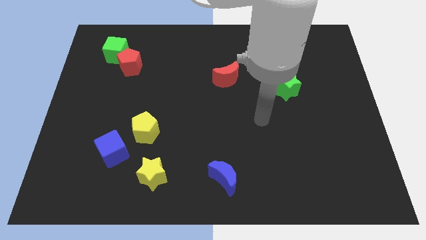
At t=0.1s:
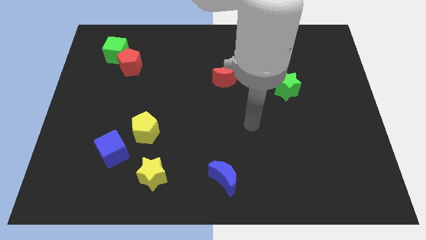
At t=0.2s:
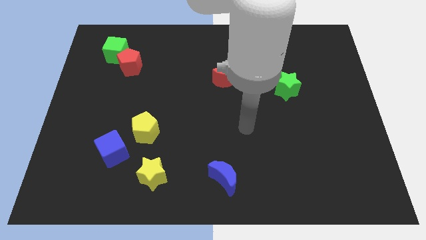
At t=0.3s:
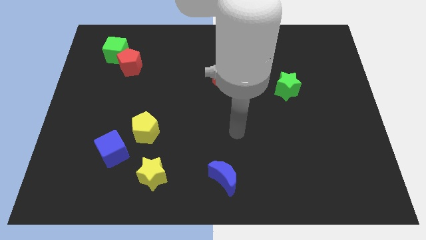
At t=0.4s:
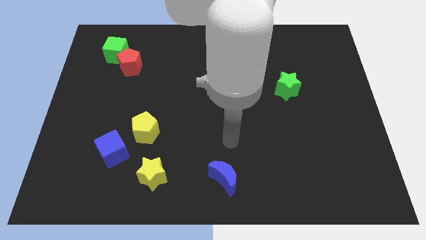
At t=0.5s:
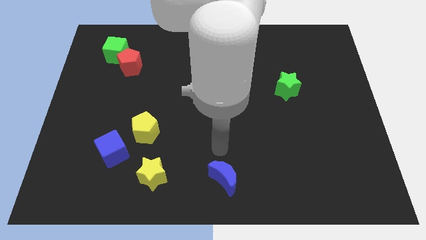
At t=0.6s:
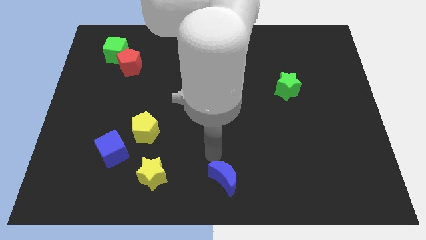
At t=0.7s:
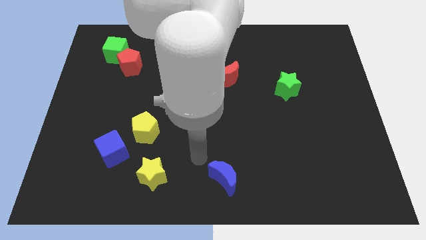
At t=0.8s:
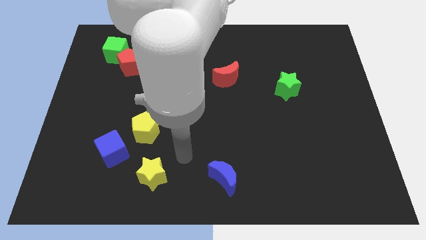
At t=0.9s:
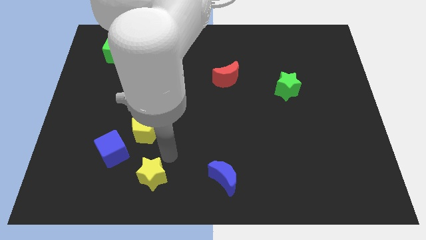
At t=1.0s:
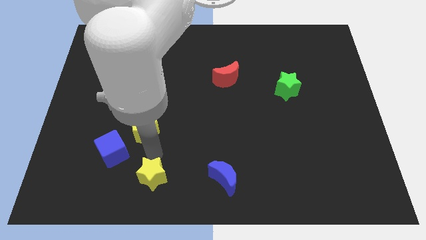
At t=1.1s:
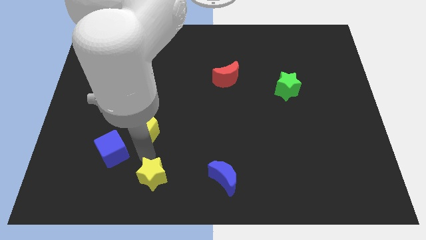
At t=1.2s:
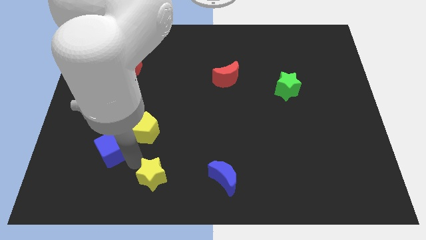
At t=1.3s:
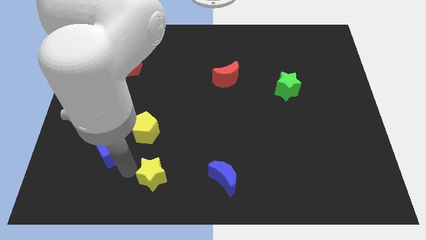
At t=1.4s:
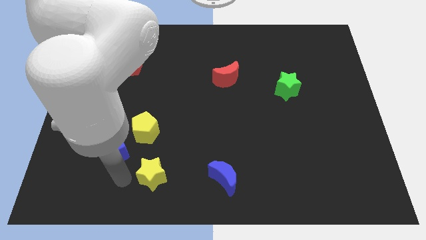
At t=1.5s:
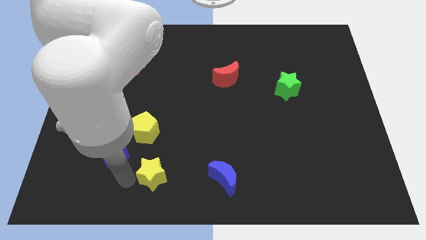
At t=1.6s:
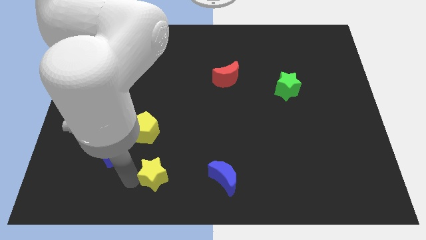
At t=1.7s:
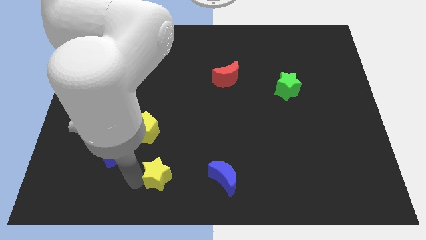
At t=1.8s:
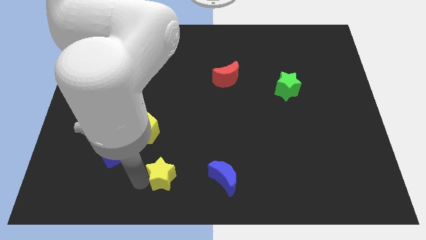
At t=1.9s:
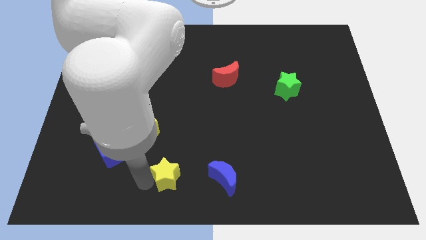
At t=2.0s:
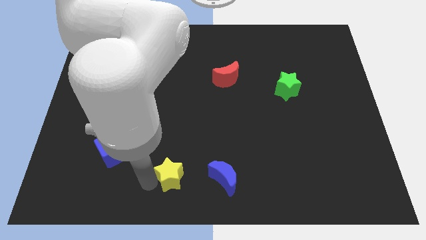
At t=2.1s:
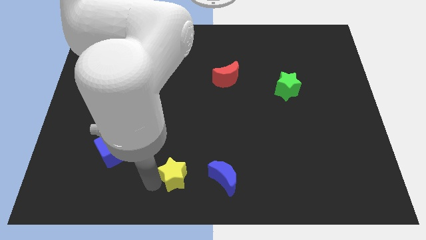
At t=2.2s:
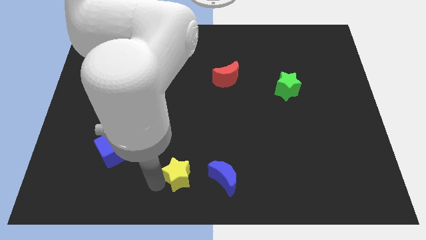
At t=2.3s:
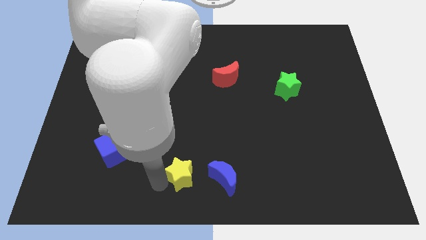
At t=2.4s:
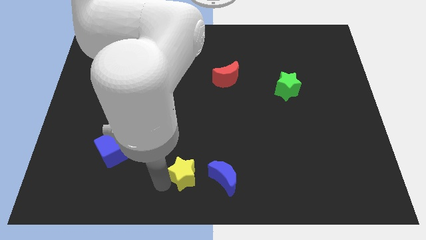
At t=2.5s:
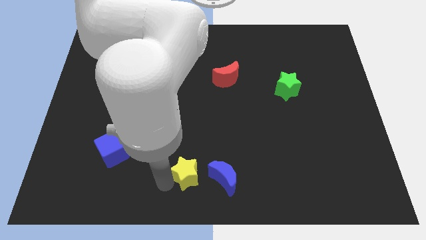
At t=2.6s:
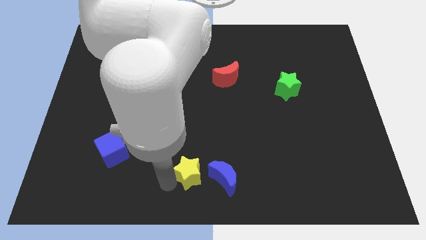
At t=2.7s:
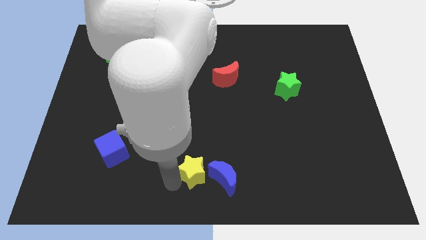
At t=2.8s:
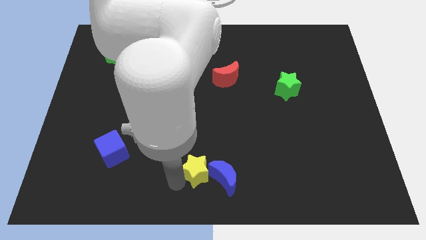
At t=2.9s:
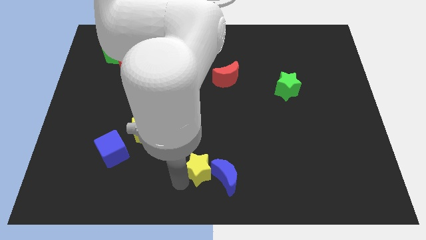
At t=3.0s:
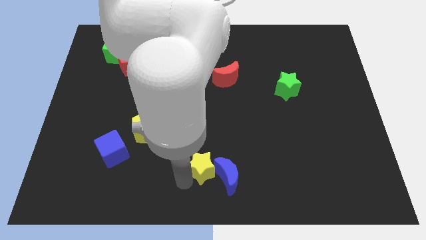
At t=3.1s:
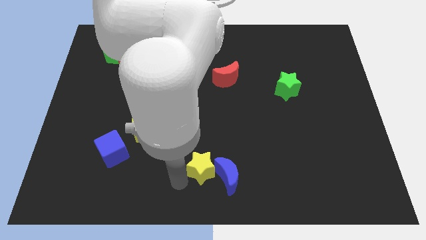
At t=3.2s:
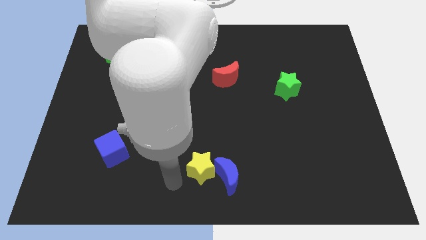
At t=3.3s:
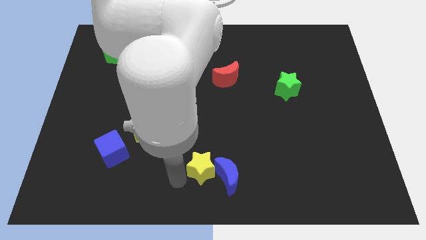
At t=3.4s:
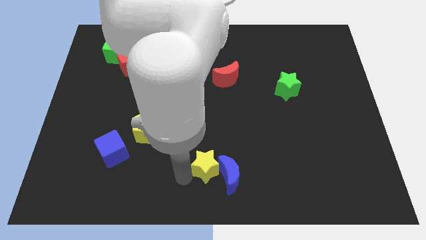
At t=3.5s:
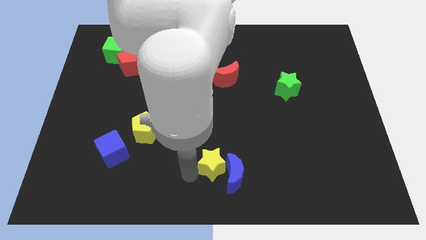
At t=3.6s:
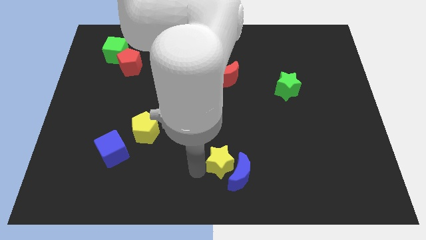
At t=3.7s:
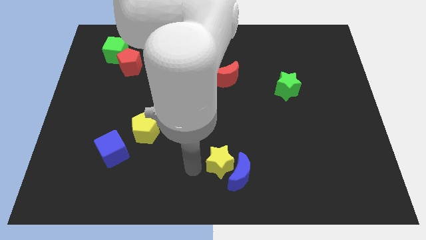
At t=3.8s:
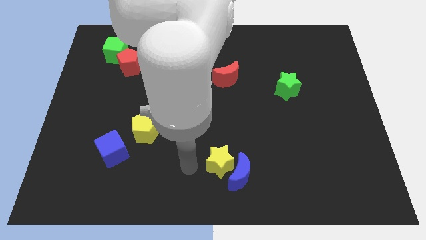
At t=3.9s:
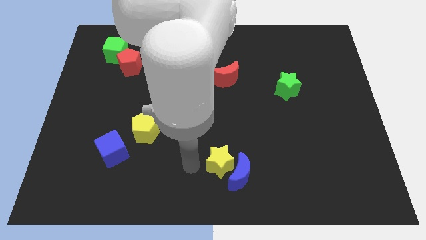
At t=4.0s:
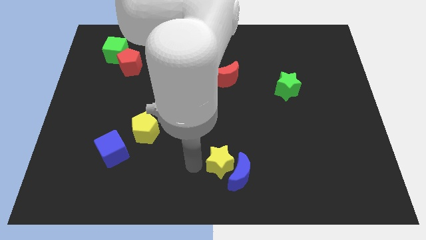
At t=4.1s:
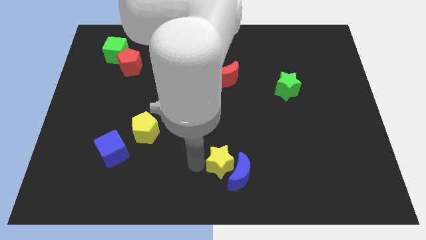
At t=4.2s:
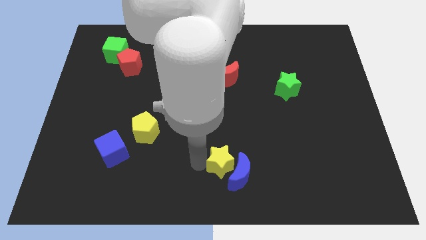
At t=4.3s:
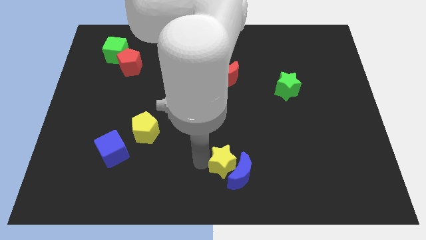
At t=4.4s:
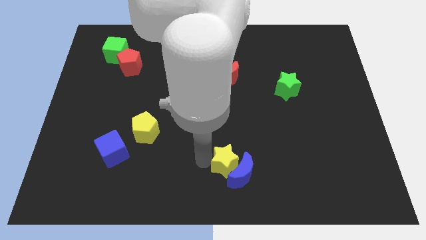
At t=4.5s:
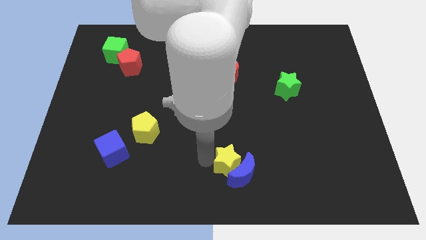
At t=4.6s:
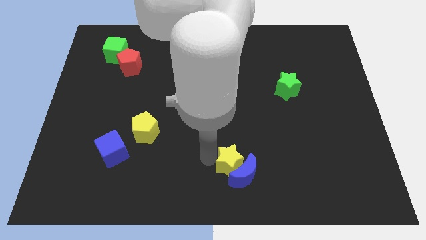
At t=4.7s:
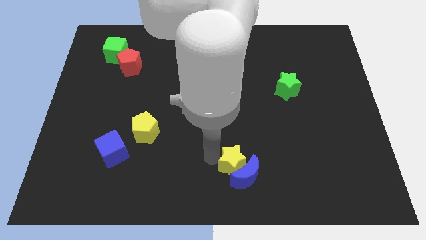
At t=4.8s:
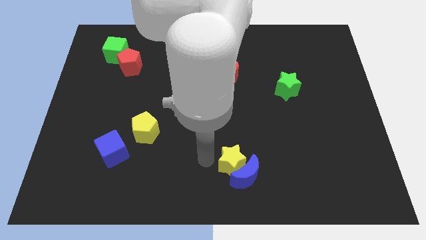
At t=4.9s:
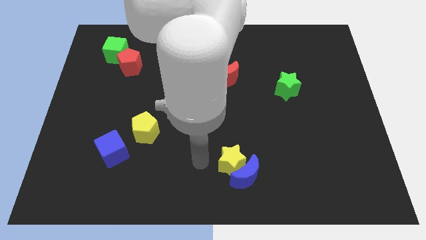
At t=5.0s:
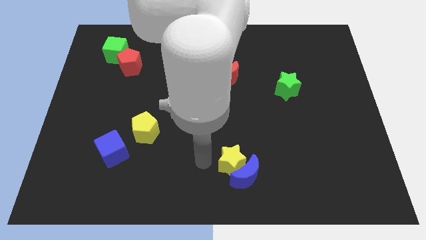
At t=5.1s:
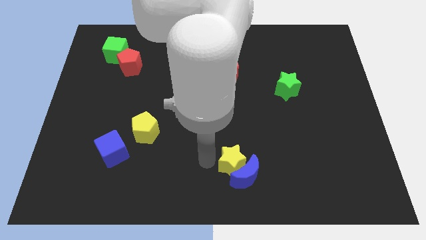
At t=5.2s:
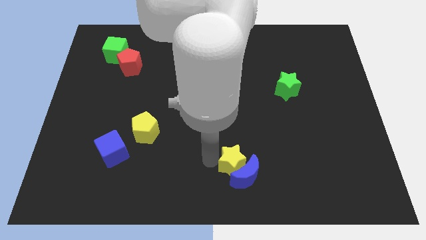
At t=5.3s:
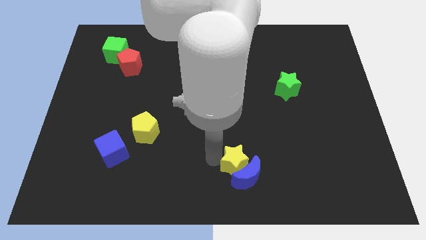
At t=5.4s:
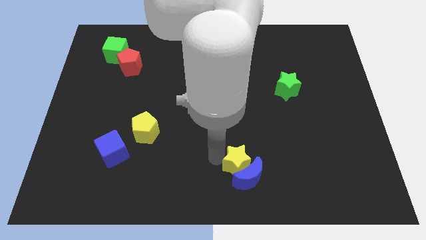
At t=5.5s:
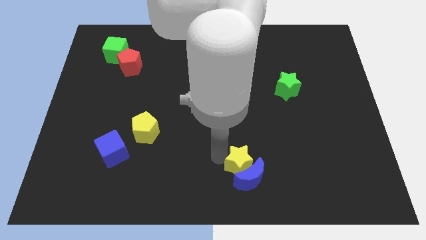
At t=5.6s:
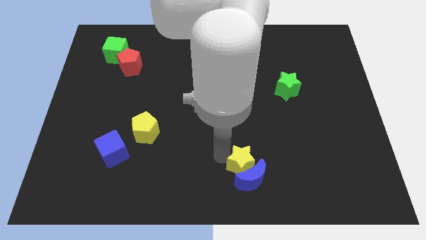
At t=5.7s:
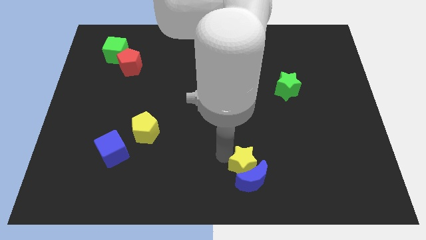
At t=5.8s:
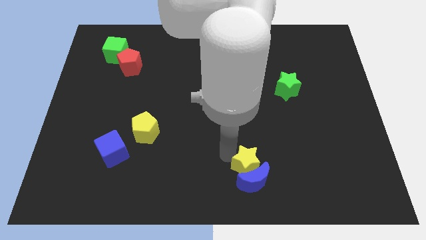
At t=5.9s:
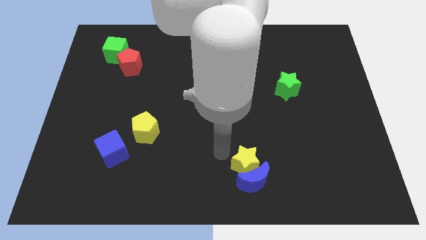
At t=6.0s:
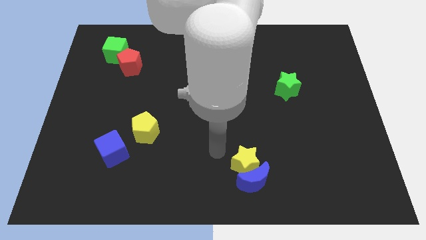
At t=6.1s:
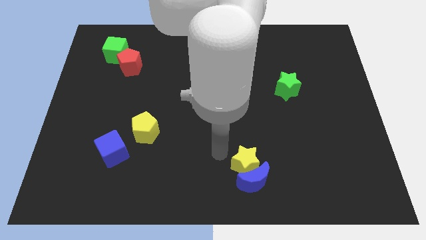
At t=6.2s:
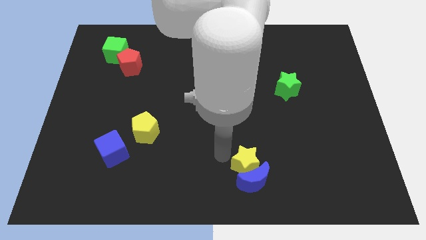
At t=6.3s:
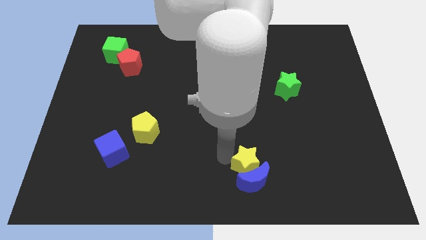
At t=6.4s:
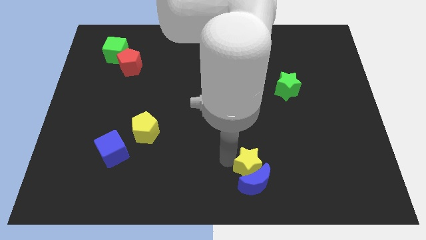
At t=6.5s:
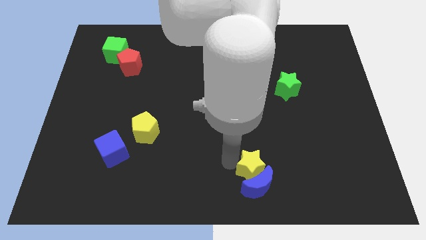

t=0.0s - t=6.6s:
slide the yellow star to the right

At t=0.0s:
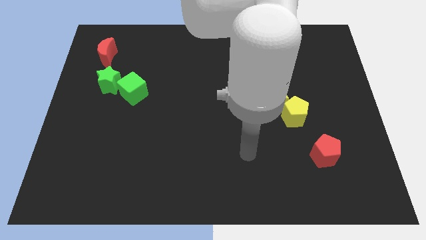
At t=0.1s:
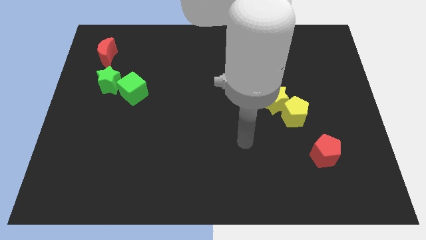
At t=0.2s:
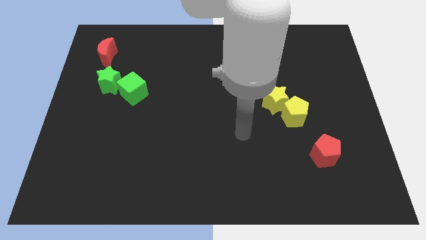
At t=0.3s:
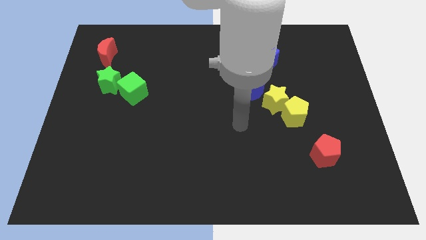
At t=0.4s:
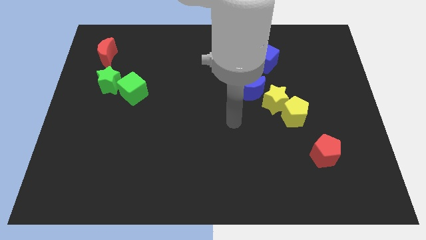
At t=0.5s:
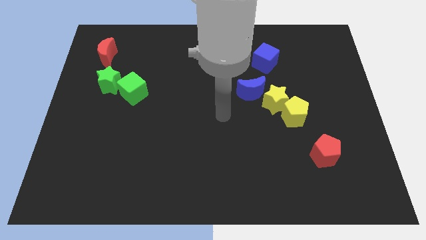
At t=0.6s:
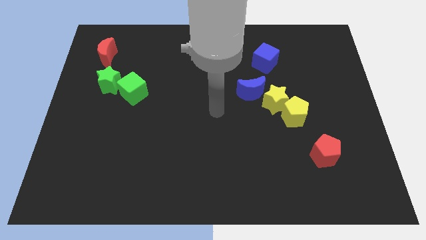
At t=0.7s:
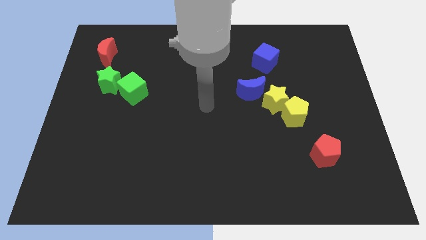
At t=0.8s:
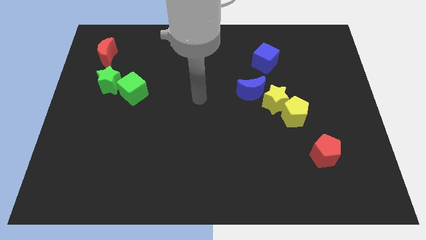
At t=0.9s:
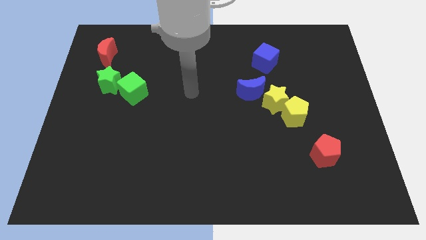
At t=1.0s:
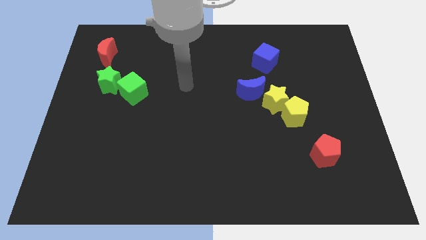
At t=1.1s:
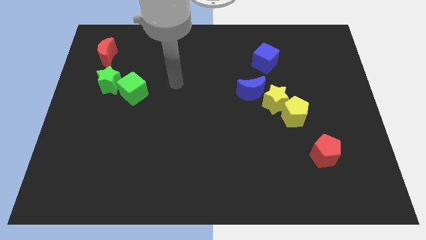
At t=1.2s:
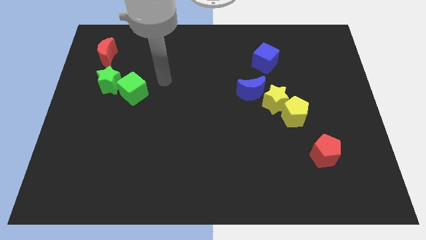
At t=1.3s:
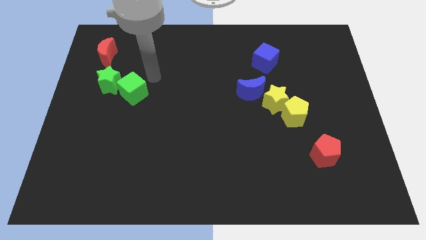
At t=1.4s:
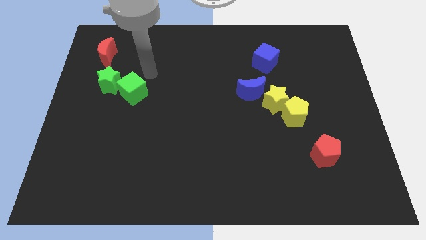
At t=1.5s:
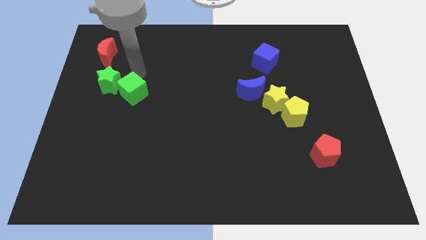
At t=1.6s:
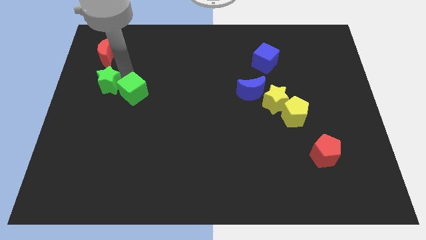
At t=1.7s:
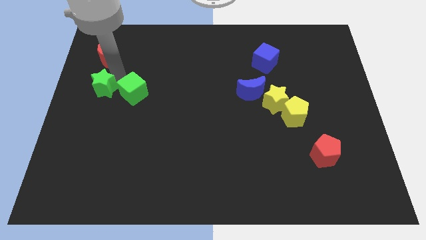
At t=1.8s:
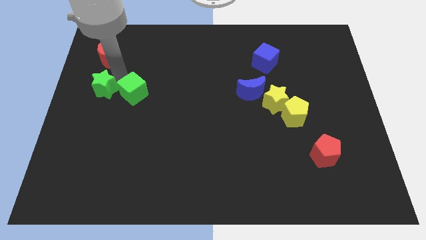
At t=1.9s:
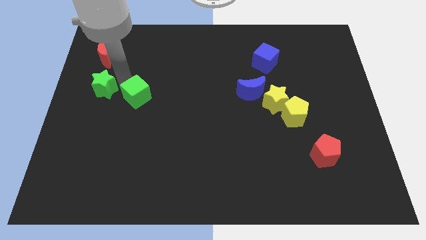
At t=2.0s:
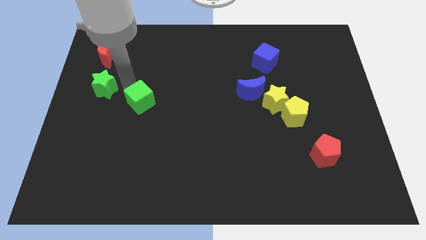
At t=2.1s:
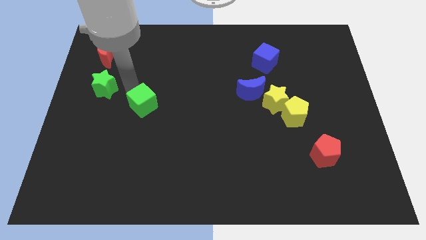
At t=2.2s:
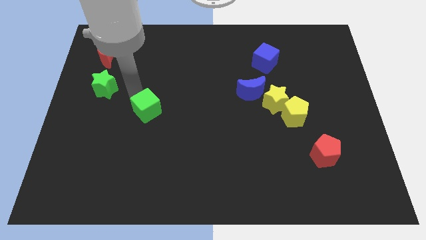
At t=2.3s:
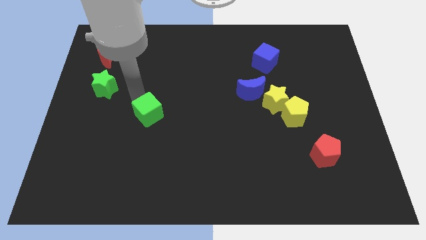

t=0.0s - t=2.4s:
slide the green cube down and then to the right slightly
